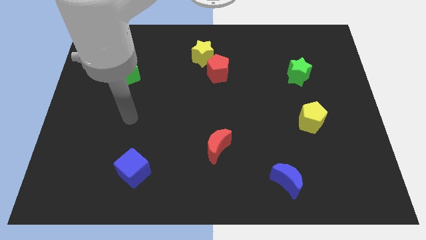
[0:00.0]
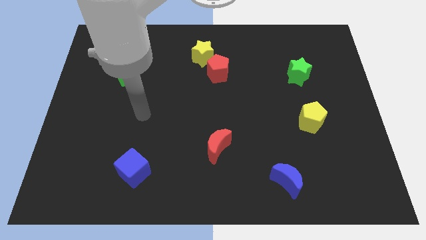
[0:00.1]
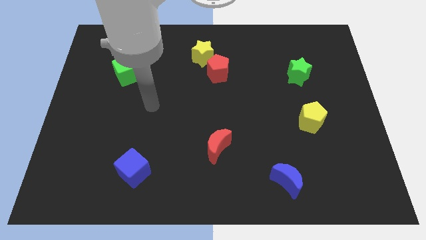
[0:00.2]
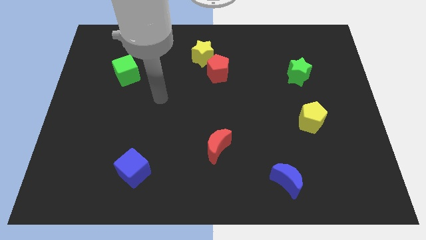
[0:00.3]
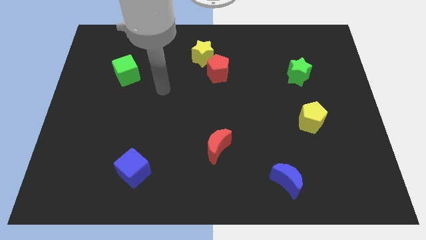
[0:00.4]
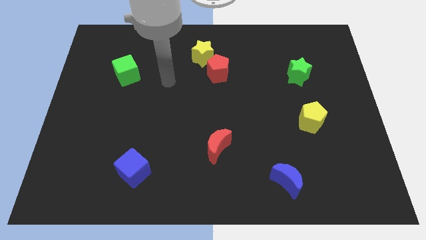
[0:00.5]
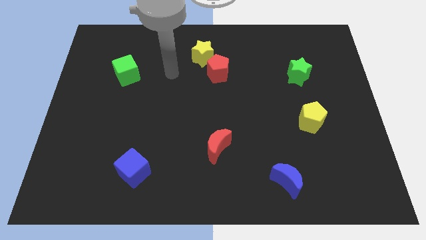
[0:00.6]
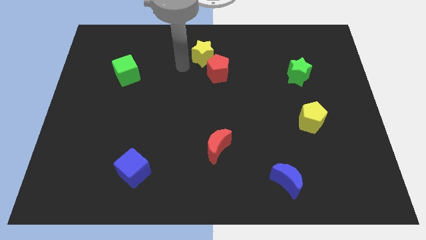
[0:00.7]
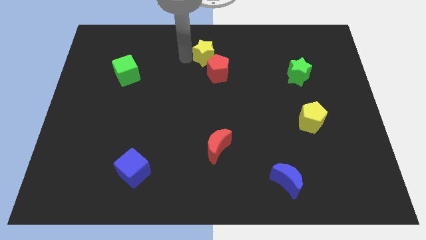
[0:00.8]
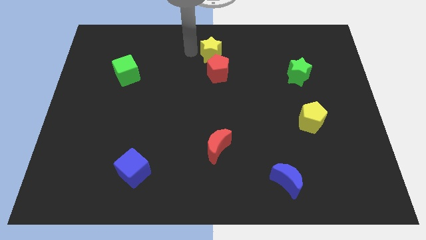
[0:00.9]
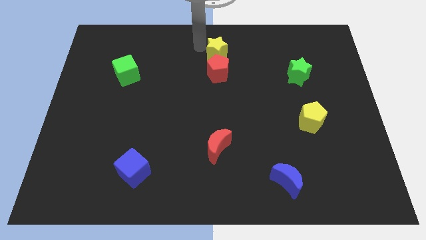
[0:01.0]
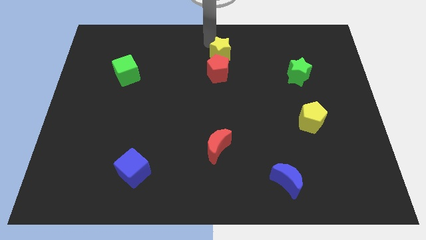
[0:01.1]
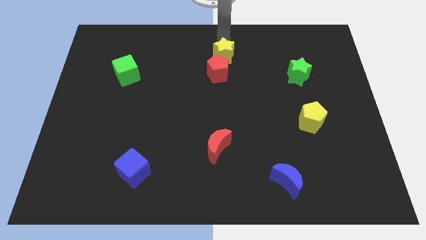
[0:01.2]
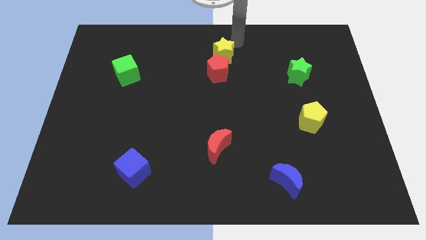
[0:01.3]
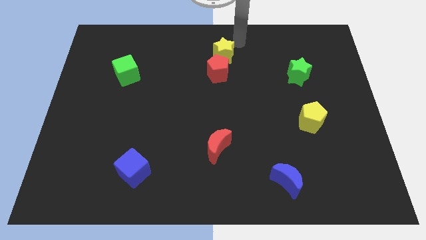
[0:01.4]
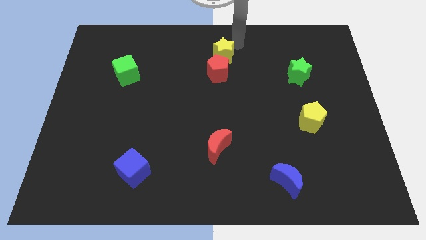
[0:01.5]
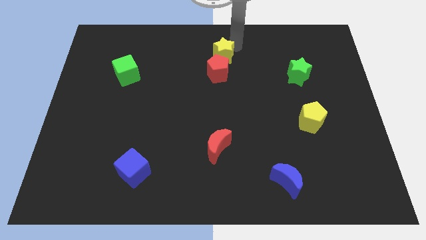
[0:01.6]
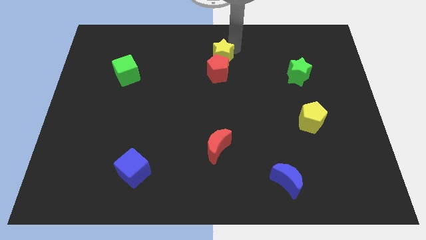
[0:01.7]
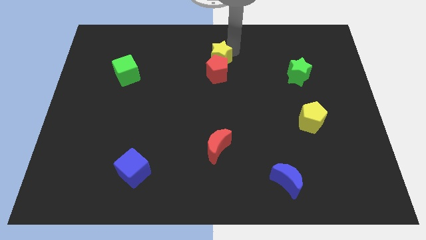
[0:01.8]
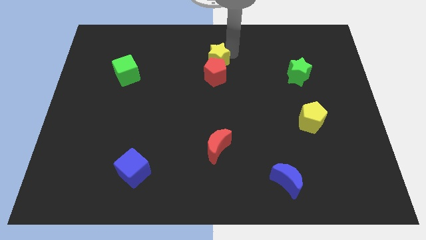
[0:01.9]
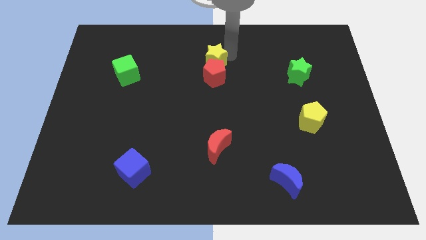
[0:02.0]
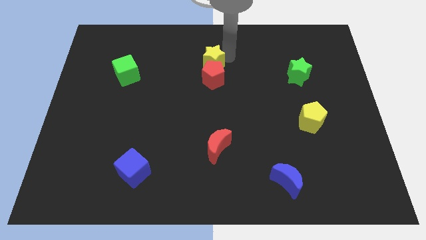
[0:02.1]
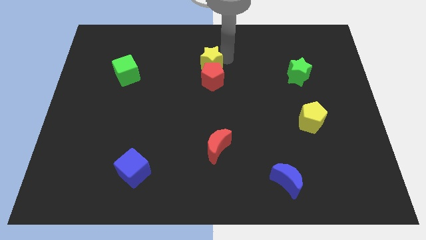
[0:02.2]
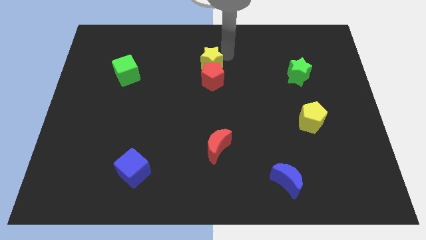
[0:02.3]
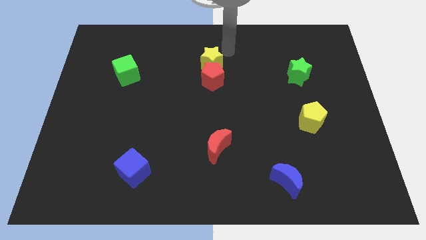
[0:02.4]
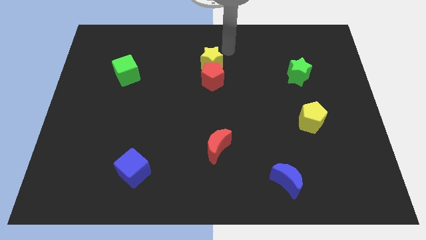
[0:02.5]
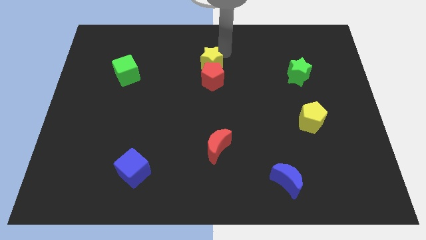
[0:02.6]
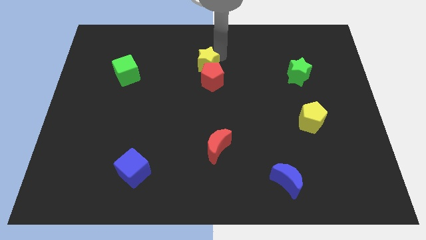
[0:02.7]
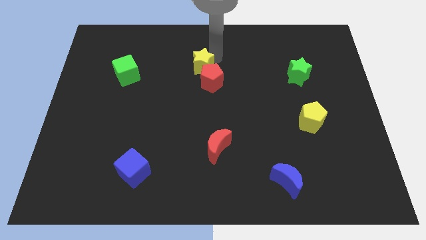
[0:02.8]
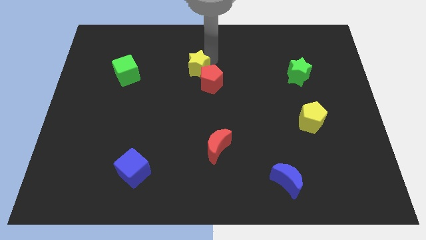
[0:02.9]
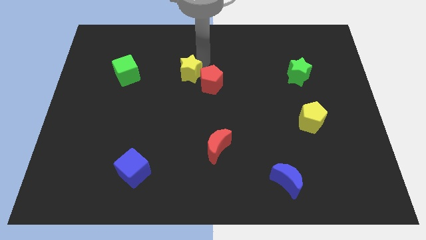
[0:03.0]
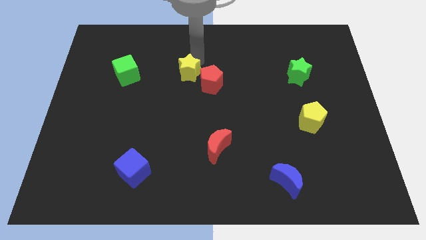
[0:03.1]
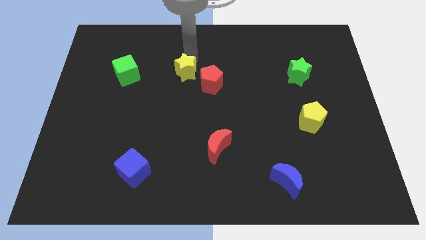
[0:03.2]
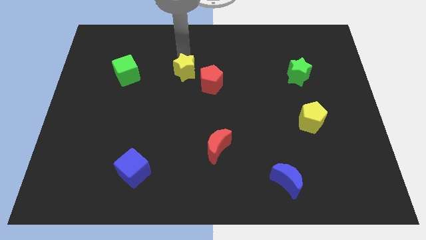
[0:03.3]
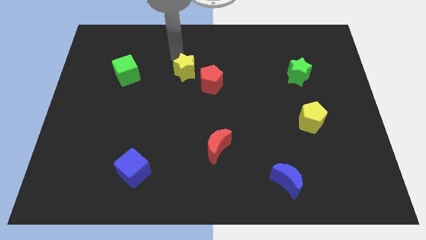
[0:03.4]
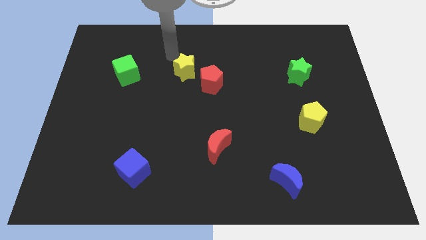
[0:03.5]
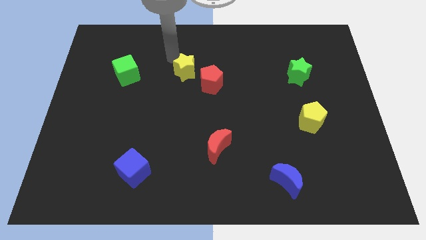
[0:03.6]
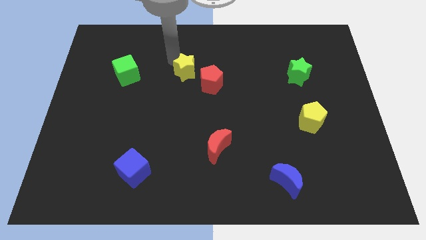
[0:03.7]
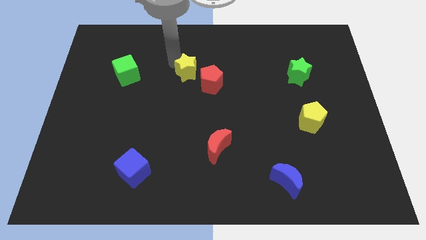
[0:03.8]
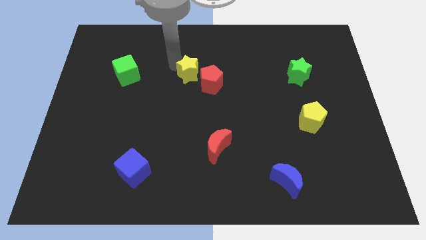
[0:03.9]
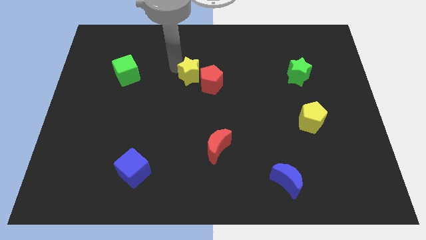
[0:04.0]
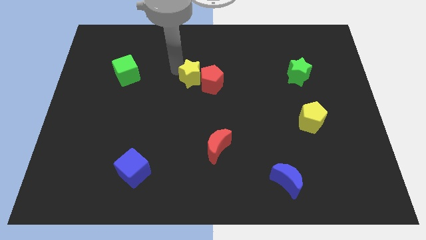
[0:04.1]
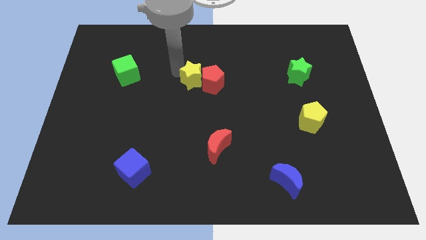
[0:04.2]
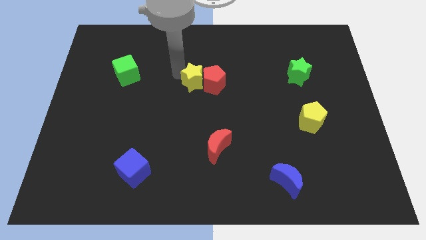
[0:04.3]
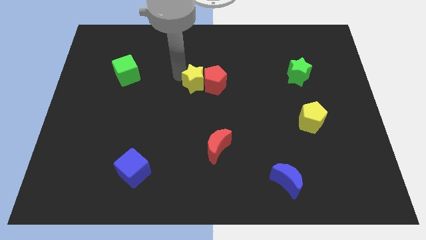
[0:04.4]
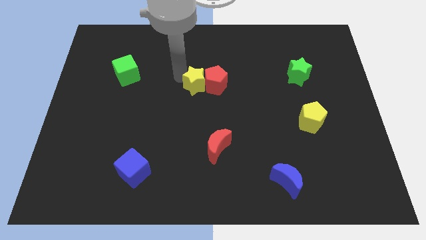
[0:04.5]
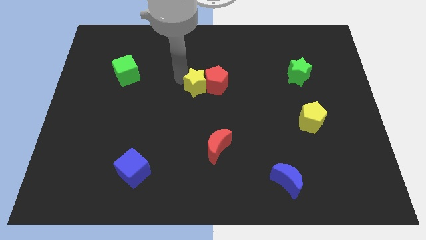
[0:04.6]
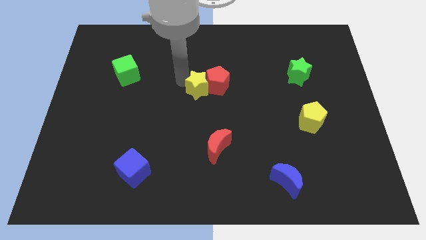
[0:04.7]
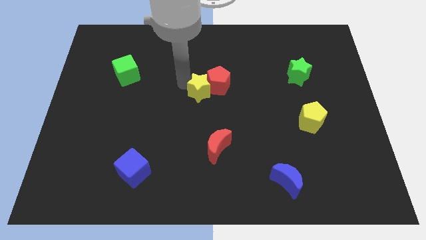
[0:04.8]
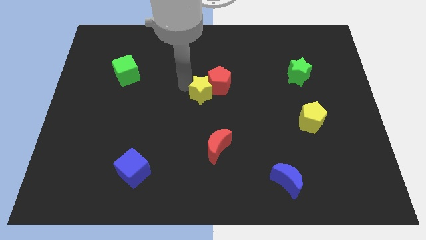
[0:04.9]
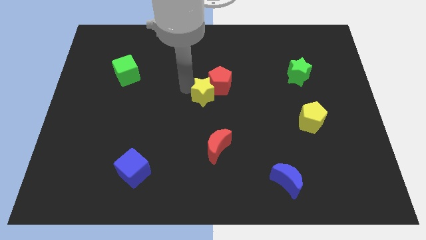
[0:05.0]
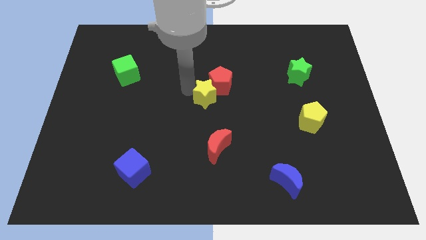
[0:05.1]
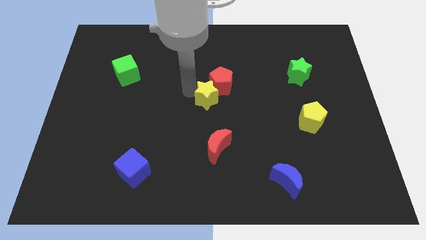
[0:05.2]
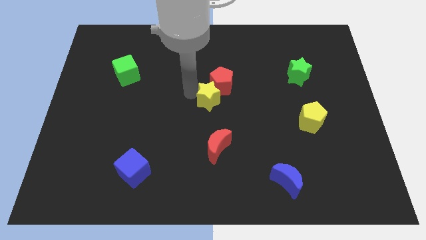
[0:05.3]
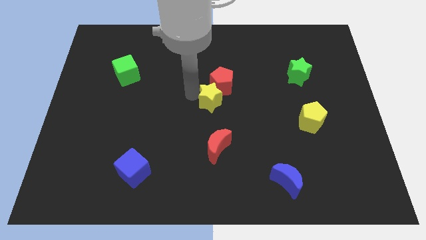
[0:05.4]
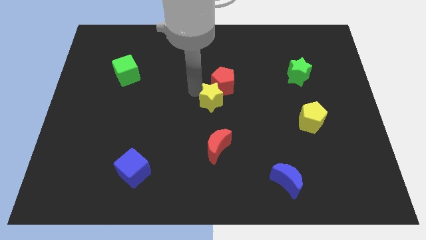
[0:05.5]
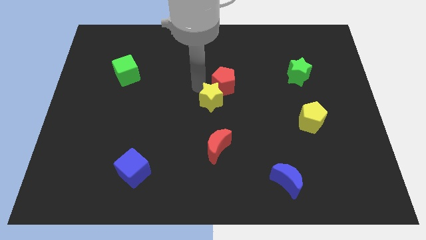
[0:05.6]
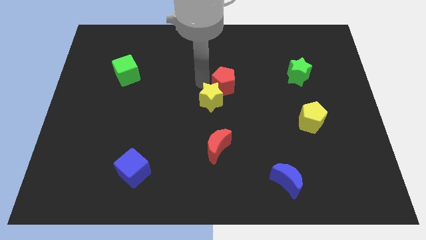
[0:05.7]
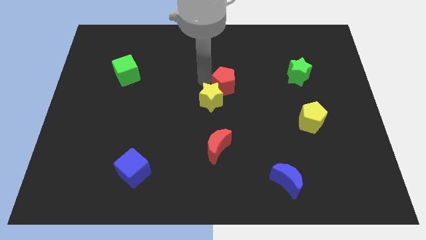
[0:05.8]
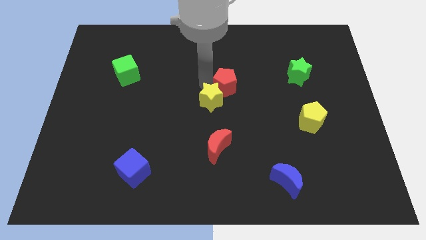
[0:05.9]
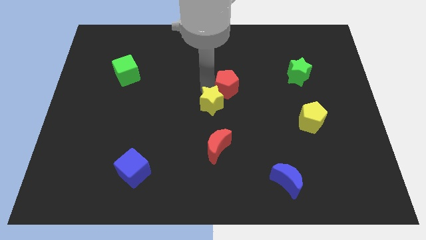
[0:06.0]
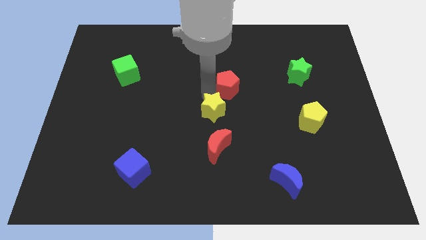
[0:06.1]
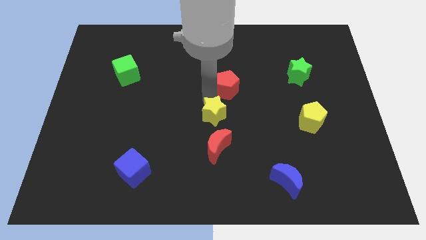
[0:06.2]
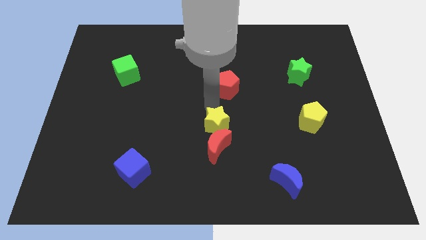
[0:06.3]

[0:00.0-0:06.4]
move the yellow star to the red moon
